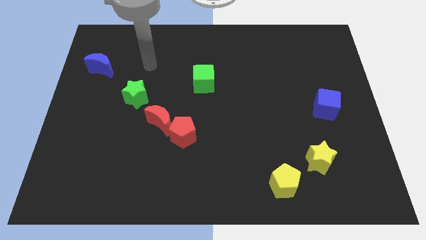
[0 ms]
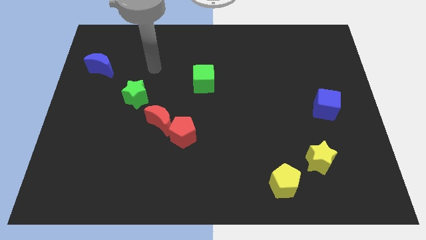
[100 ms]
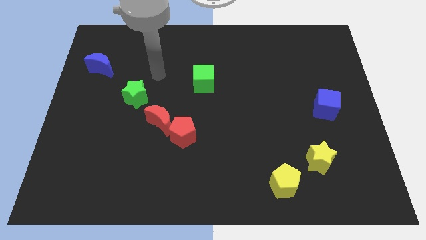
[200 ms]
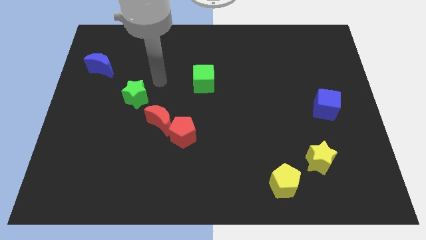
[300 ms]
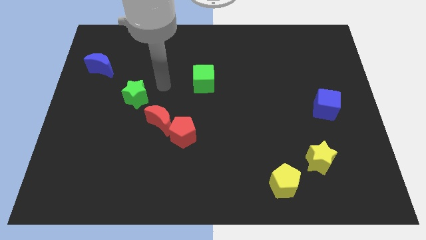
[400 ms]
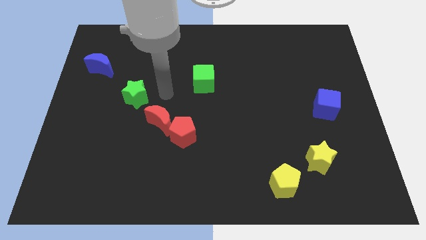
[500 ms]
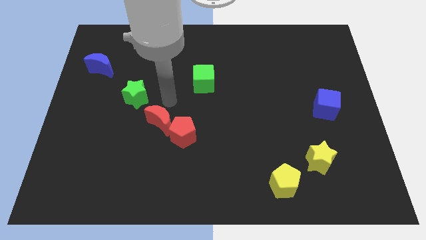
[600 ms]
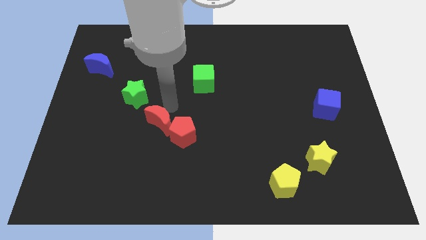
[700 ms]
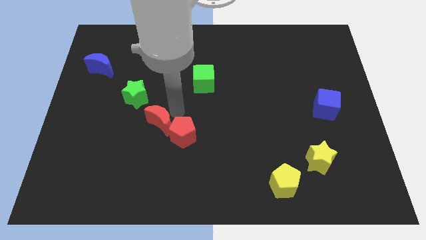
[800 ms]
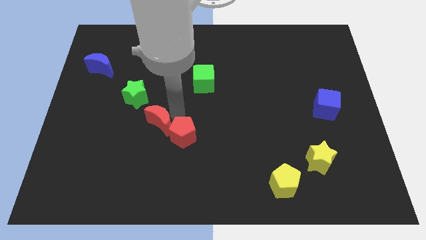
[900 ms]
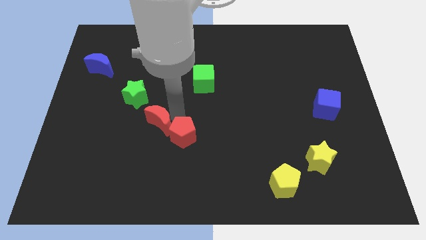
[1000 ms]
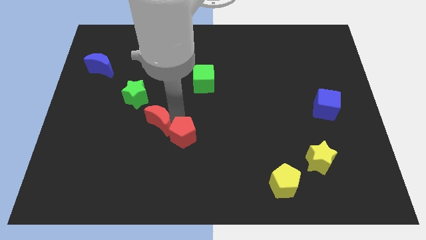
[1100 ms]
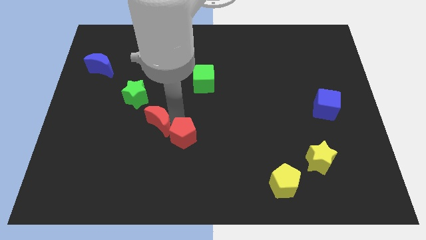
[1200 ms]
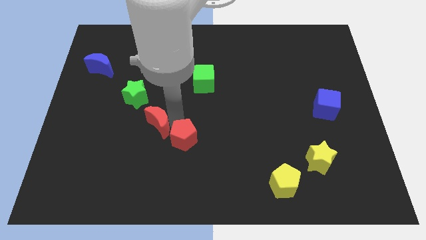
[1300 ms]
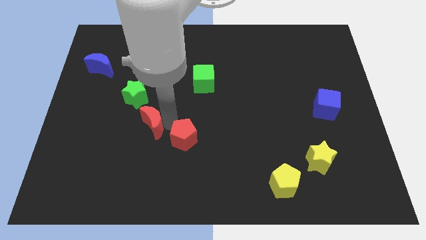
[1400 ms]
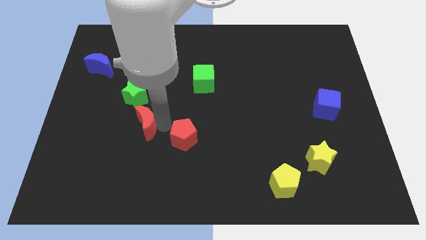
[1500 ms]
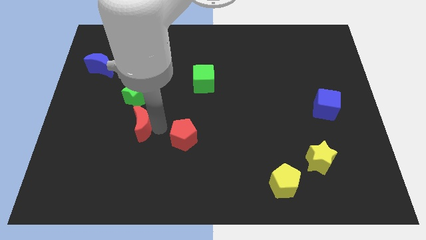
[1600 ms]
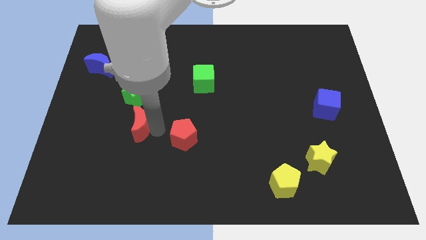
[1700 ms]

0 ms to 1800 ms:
separate the red pentagon from the red moon

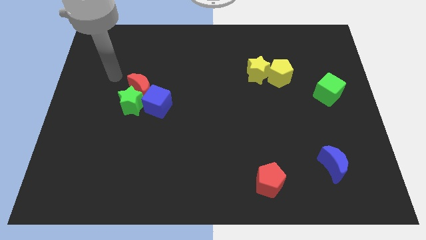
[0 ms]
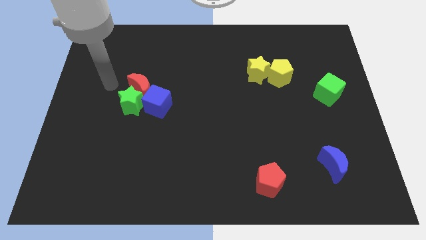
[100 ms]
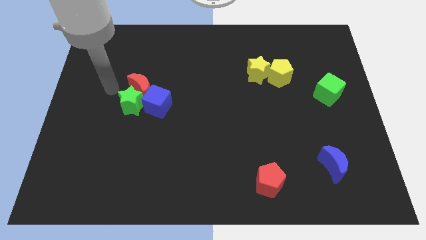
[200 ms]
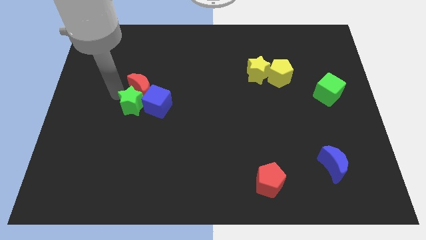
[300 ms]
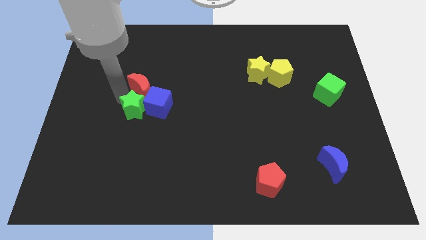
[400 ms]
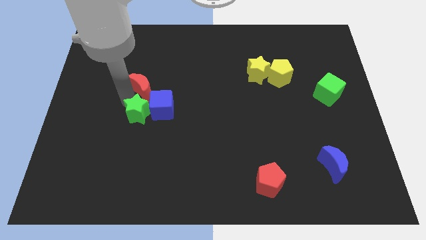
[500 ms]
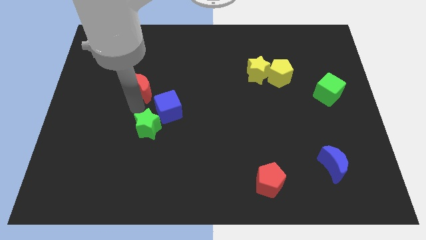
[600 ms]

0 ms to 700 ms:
separate the red moon from the green star and blue cube

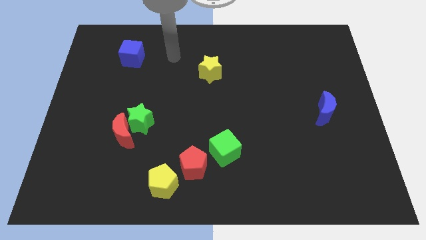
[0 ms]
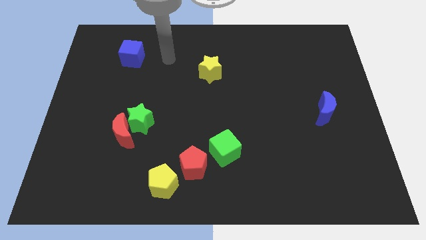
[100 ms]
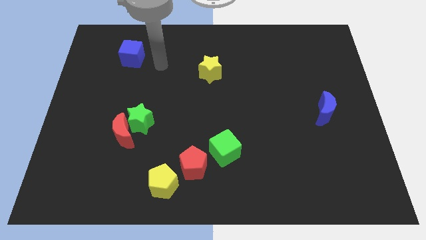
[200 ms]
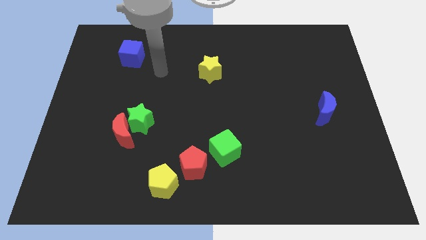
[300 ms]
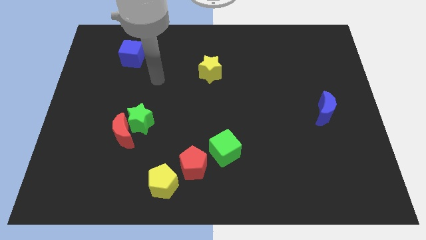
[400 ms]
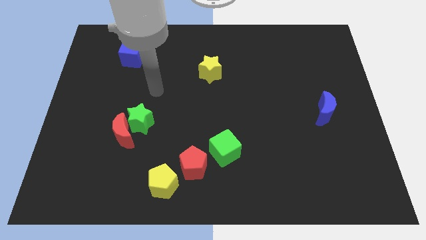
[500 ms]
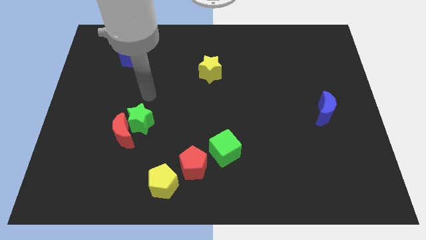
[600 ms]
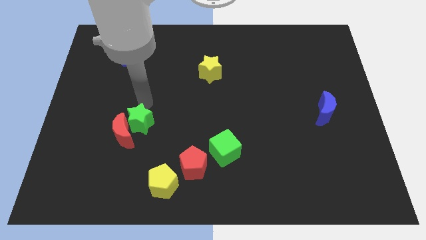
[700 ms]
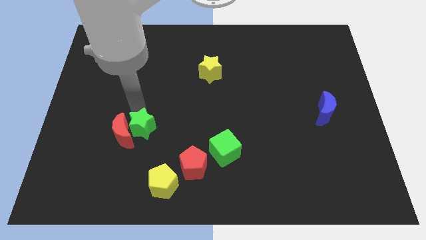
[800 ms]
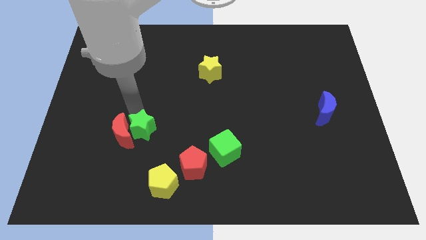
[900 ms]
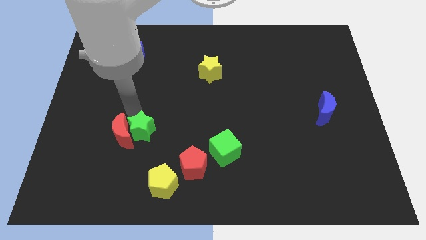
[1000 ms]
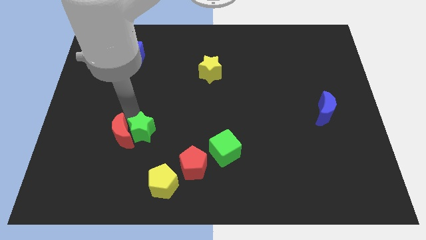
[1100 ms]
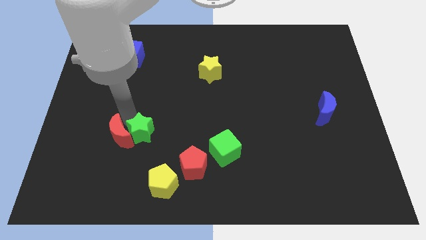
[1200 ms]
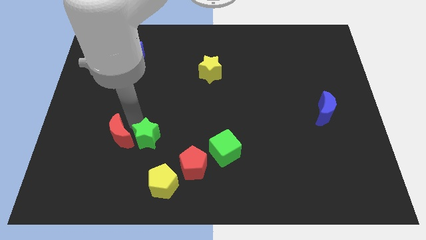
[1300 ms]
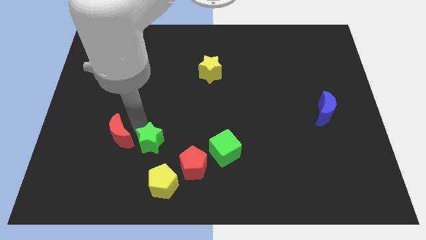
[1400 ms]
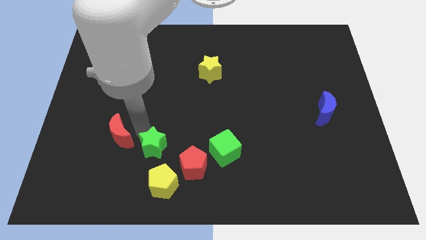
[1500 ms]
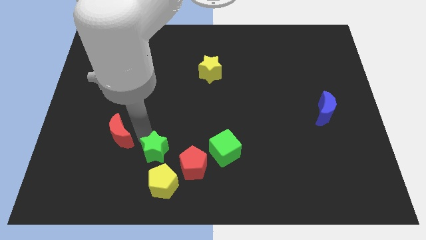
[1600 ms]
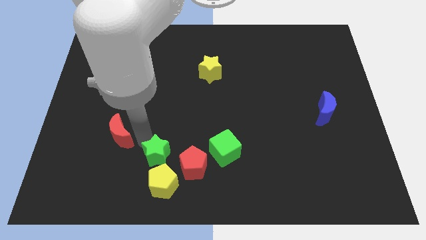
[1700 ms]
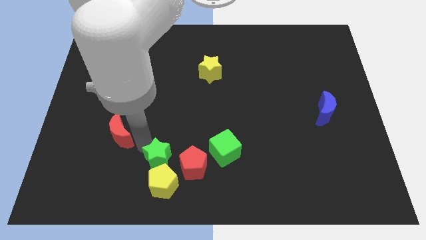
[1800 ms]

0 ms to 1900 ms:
pull the red moon apart from the green star

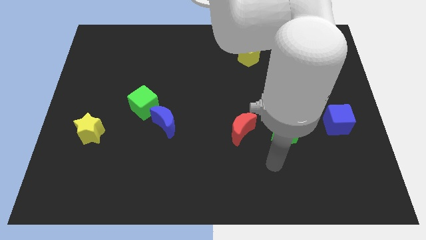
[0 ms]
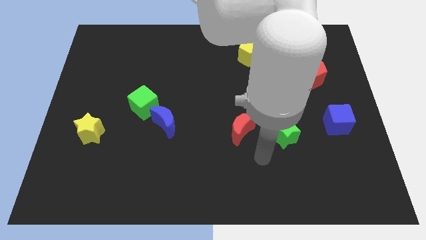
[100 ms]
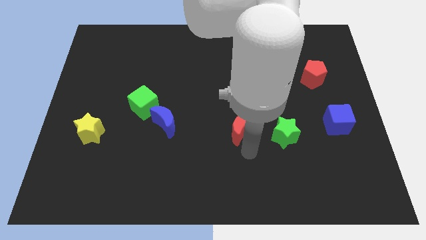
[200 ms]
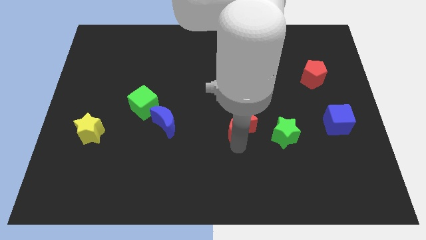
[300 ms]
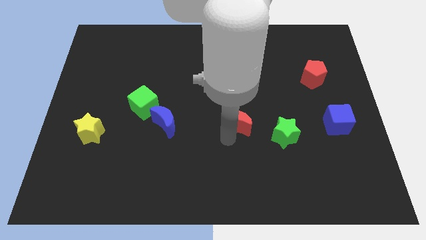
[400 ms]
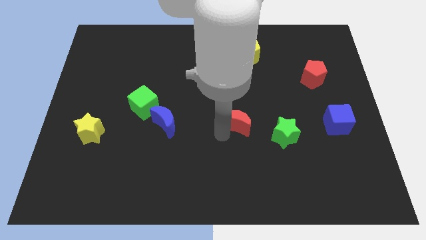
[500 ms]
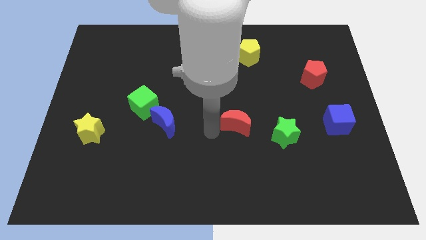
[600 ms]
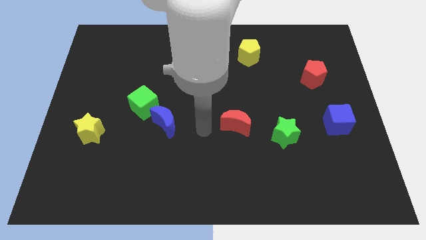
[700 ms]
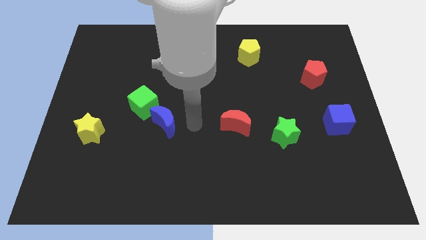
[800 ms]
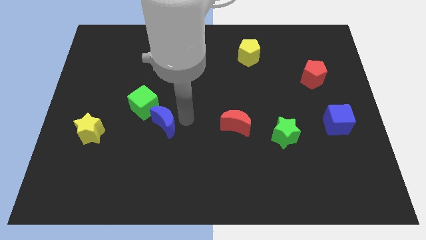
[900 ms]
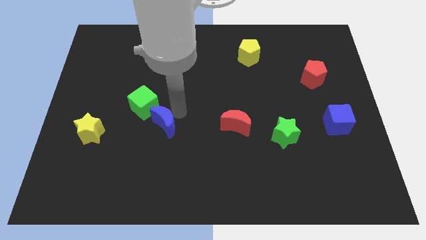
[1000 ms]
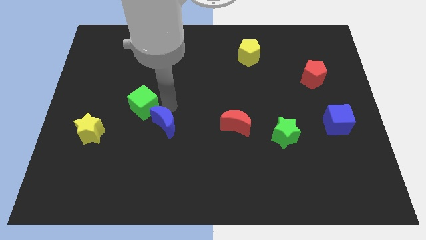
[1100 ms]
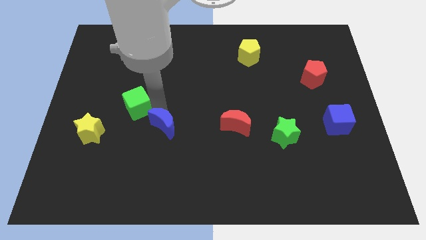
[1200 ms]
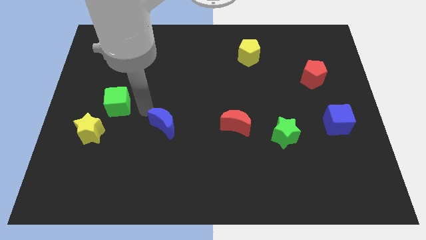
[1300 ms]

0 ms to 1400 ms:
pull the blue moon apart from the green cube

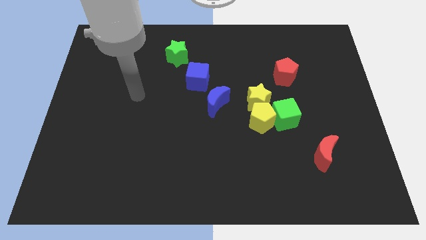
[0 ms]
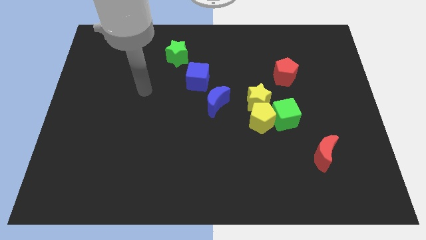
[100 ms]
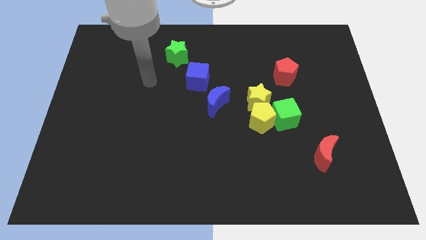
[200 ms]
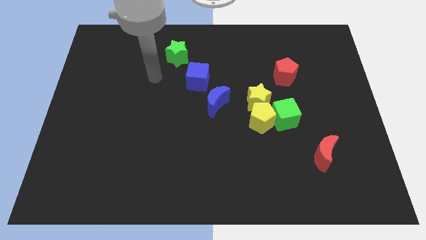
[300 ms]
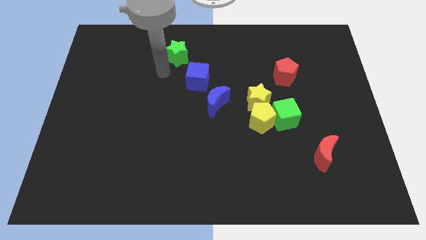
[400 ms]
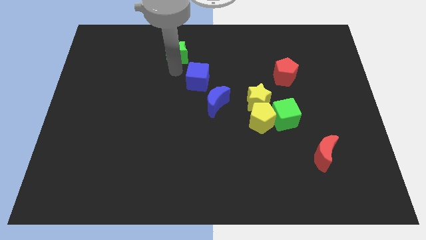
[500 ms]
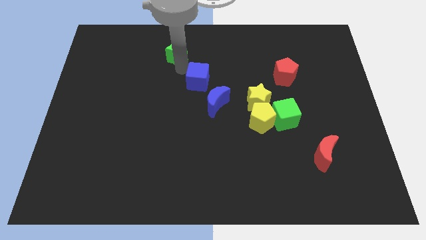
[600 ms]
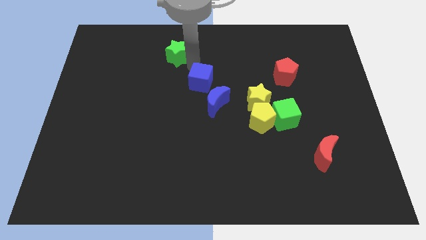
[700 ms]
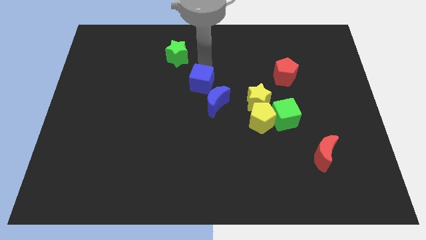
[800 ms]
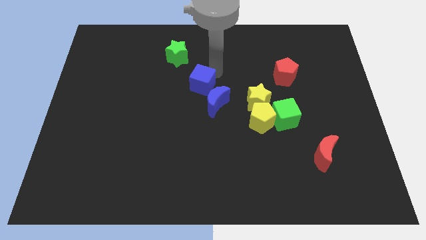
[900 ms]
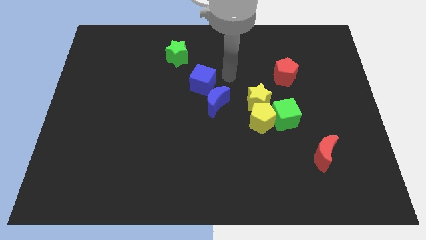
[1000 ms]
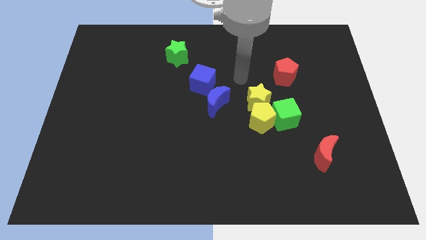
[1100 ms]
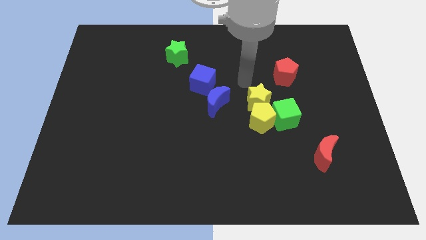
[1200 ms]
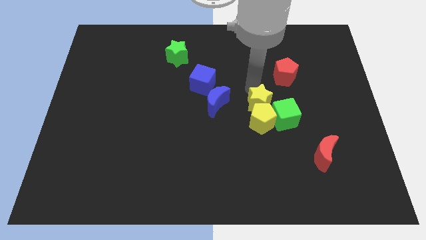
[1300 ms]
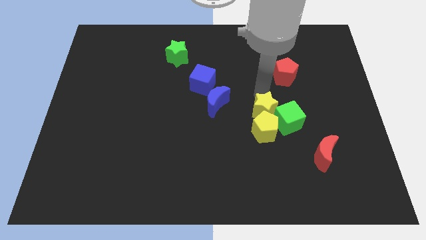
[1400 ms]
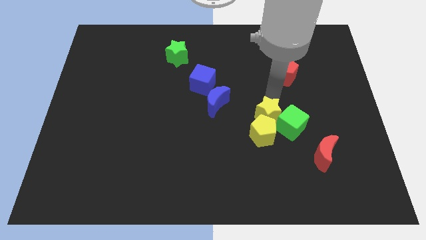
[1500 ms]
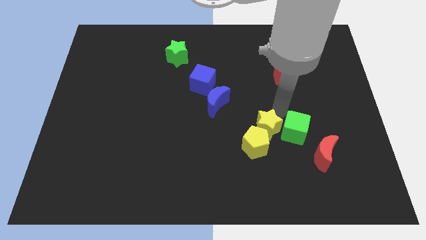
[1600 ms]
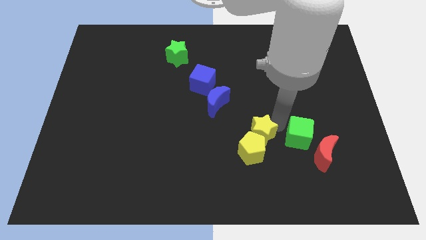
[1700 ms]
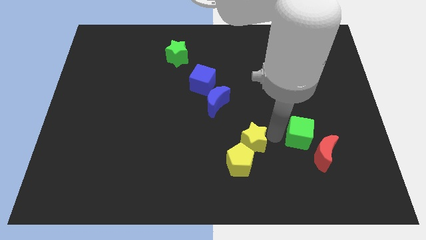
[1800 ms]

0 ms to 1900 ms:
move the yellow pentagon away from the green cube and yellow star

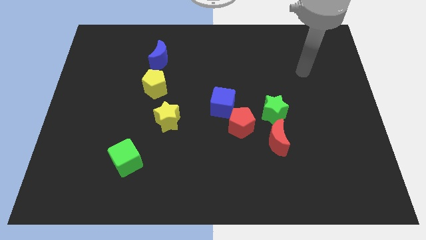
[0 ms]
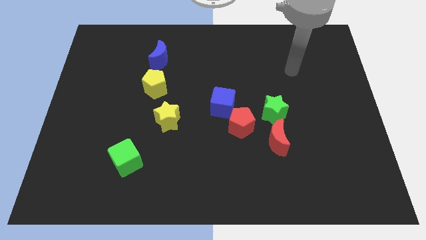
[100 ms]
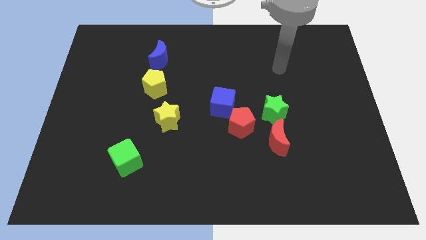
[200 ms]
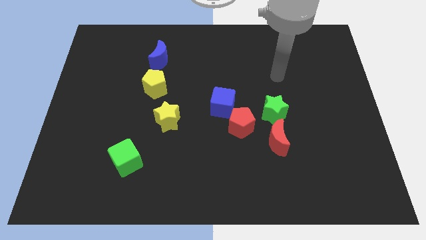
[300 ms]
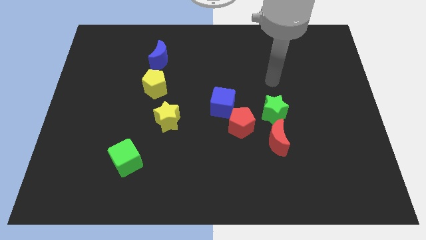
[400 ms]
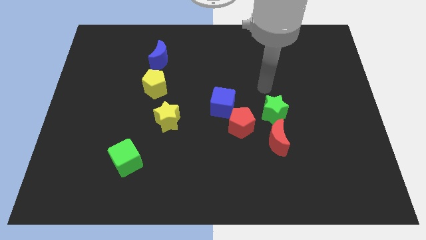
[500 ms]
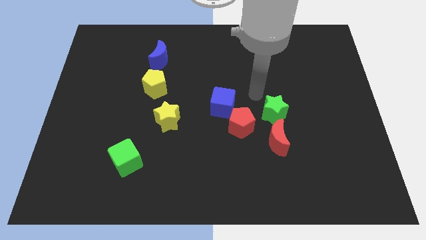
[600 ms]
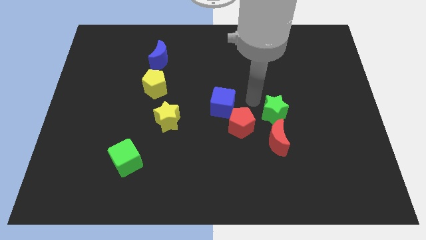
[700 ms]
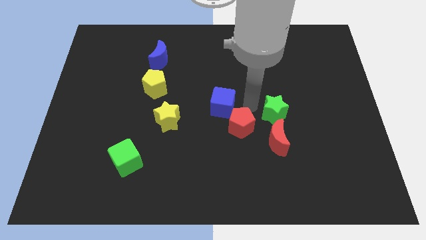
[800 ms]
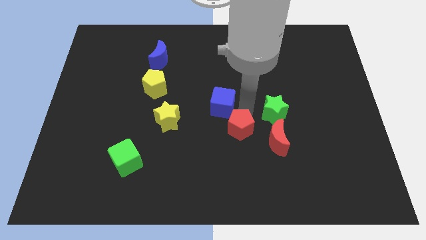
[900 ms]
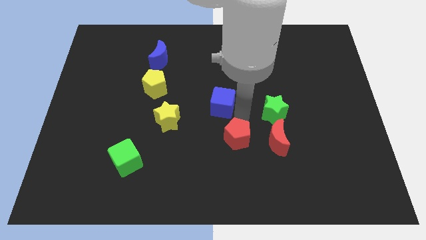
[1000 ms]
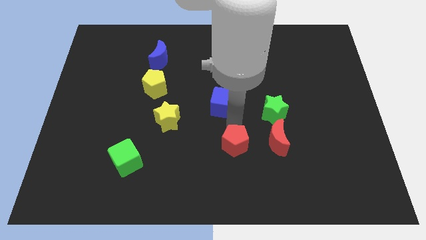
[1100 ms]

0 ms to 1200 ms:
pull the blue cube apart from the red pentagon

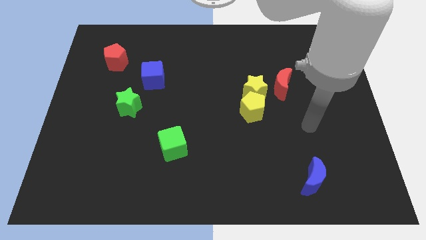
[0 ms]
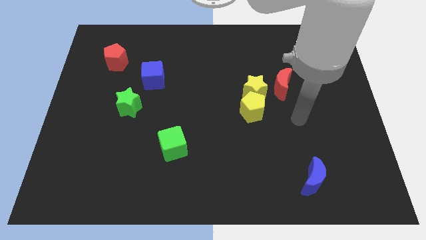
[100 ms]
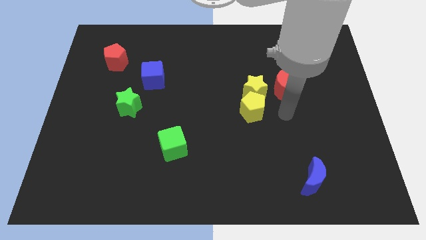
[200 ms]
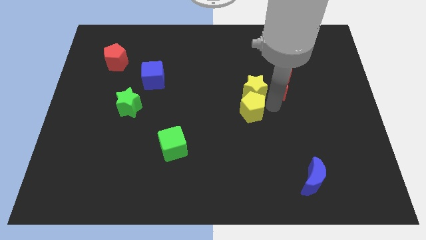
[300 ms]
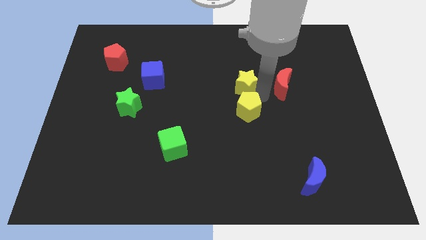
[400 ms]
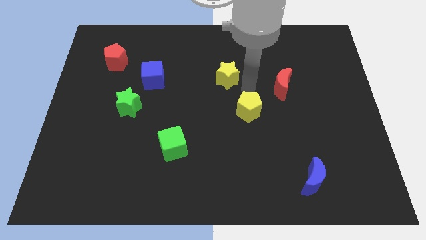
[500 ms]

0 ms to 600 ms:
separate the yellow pentagon from the yellow star
